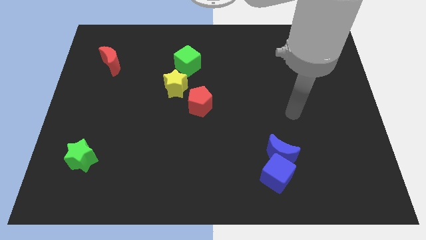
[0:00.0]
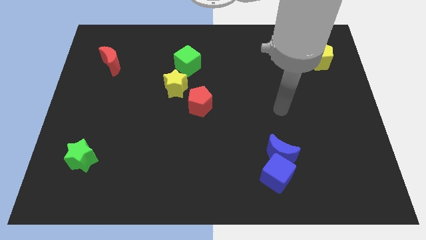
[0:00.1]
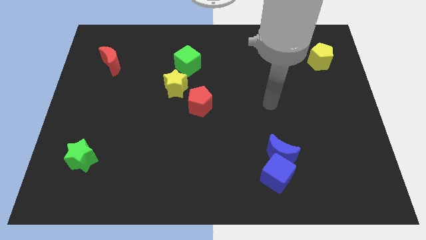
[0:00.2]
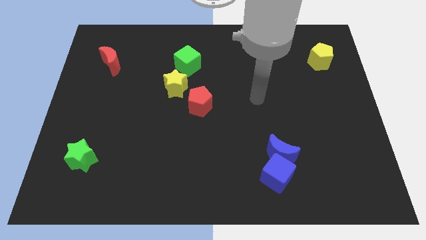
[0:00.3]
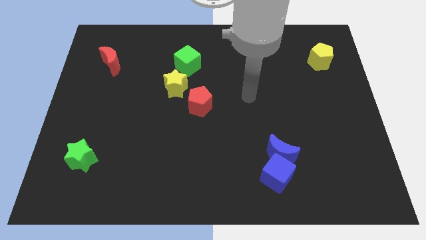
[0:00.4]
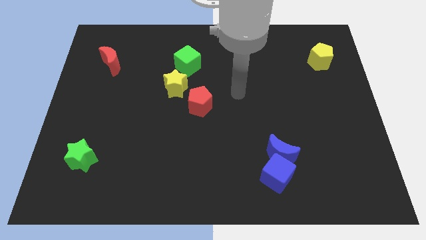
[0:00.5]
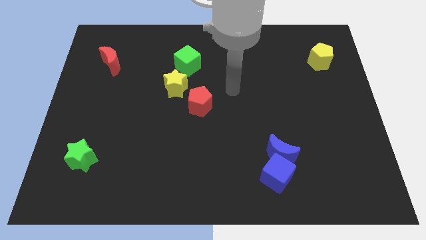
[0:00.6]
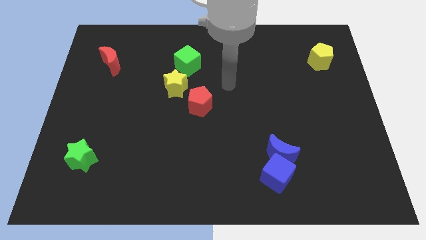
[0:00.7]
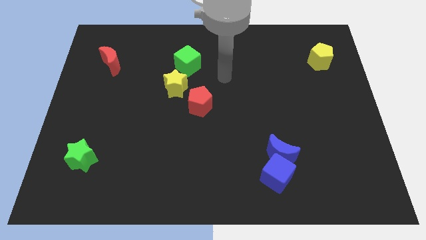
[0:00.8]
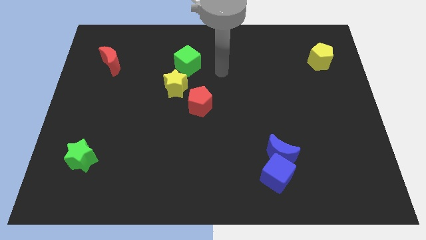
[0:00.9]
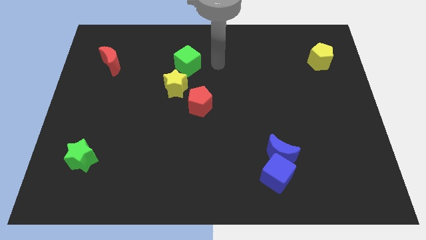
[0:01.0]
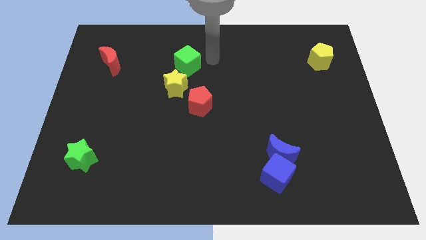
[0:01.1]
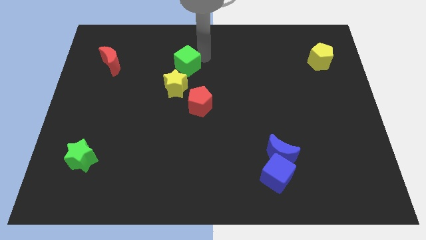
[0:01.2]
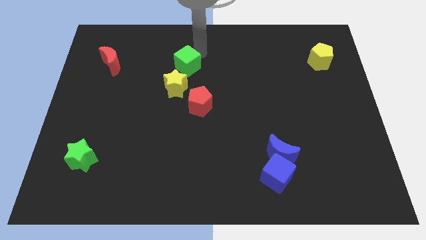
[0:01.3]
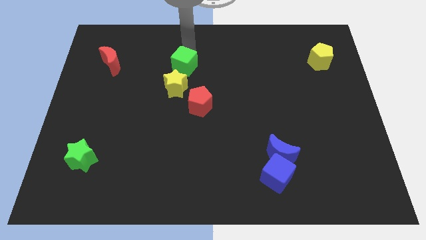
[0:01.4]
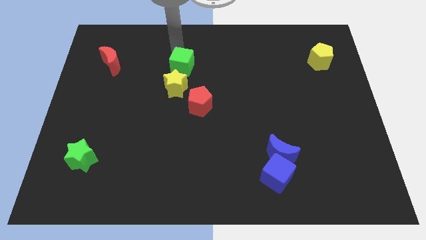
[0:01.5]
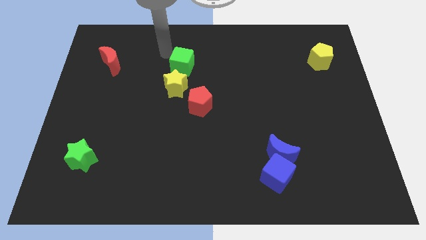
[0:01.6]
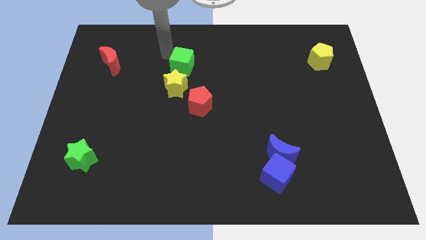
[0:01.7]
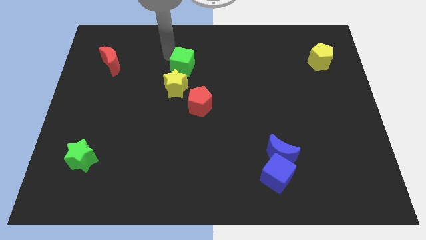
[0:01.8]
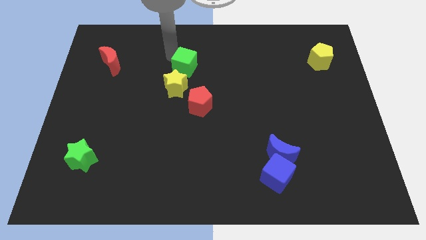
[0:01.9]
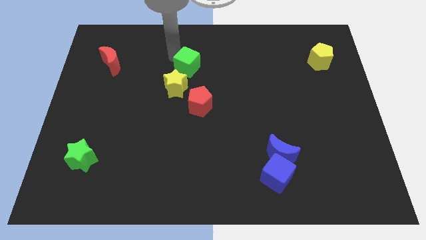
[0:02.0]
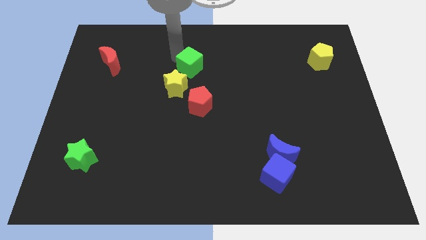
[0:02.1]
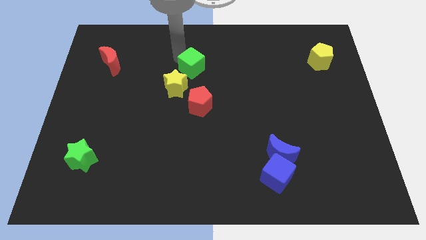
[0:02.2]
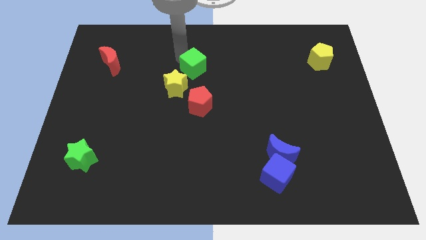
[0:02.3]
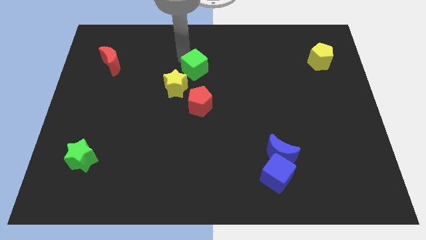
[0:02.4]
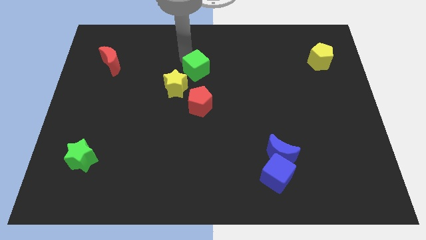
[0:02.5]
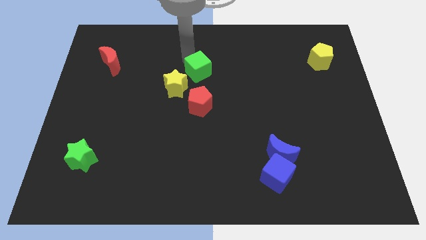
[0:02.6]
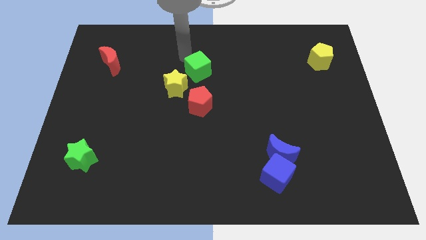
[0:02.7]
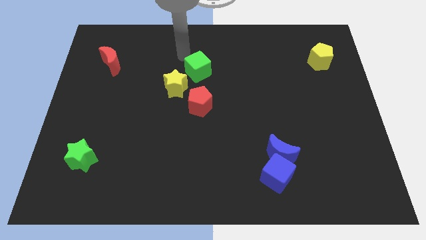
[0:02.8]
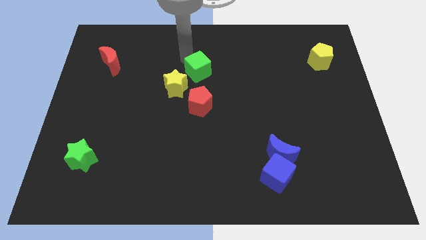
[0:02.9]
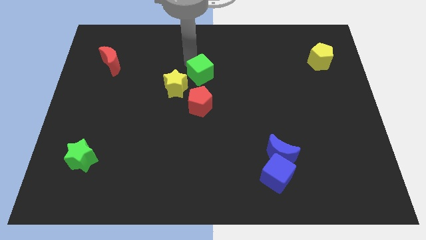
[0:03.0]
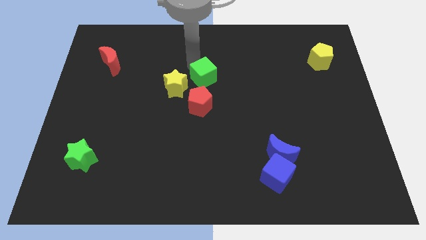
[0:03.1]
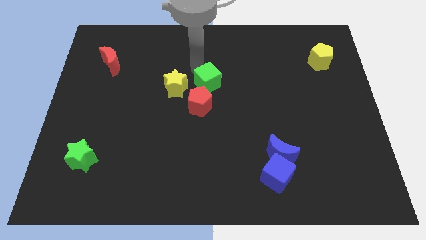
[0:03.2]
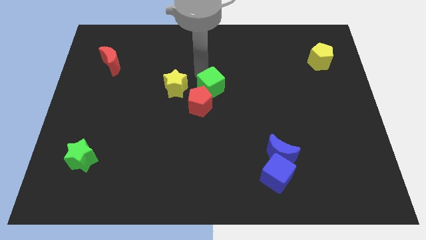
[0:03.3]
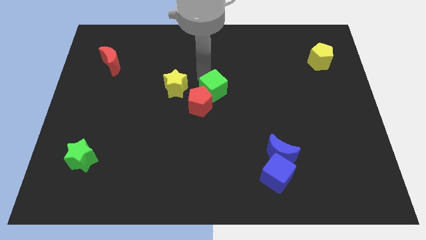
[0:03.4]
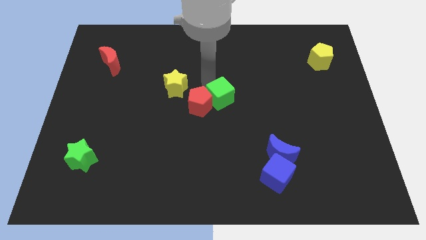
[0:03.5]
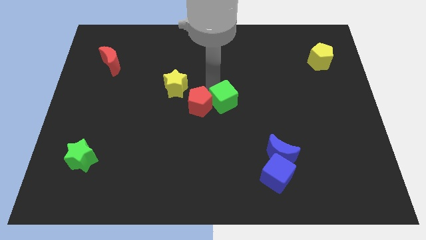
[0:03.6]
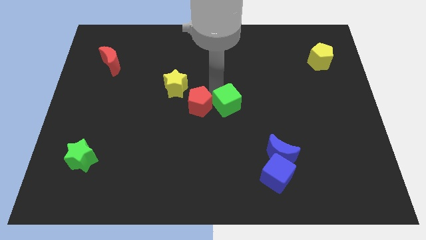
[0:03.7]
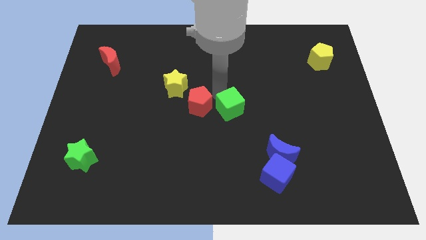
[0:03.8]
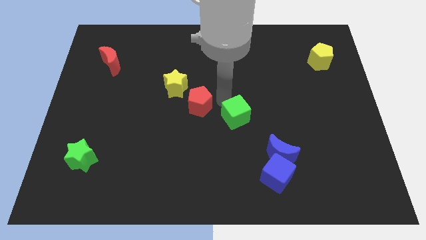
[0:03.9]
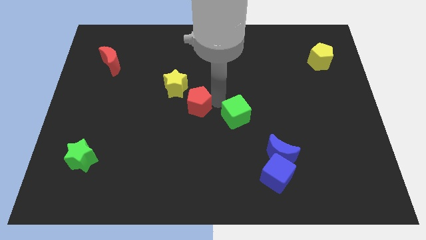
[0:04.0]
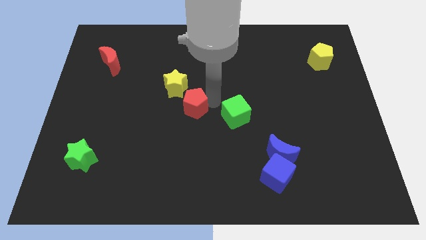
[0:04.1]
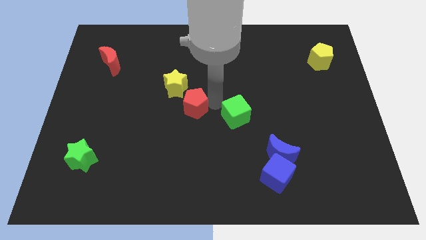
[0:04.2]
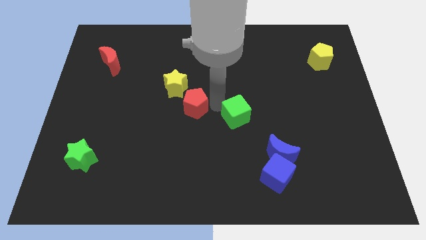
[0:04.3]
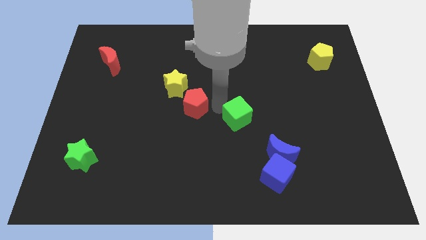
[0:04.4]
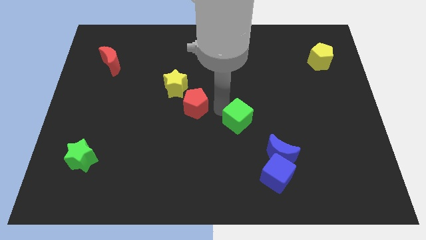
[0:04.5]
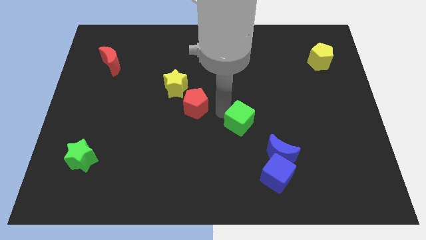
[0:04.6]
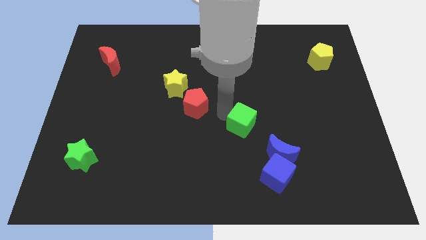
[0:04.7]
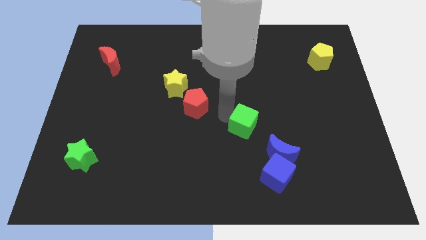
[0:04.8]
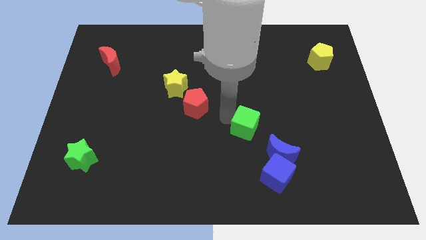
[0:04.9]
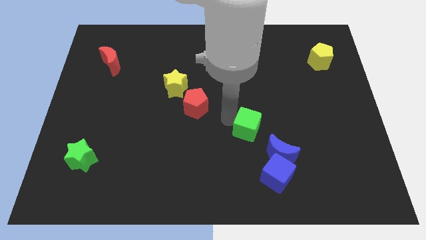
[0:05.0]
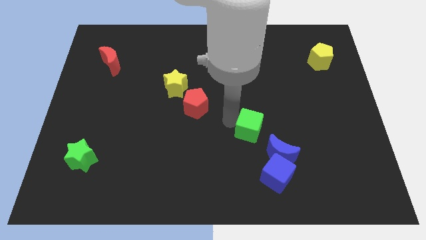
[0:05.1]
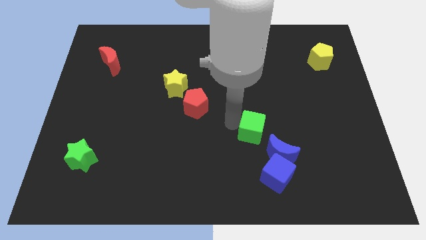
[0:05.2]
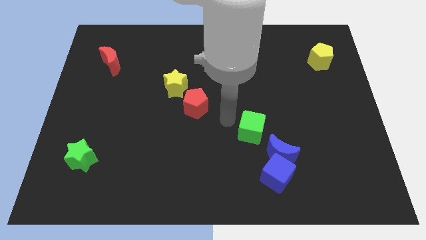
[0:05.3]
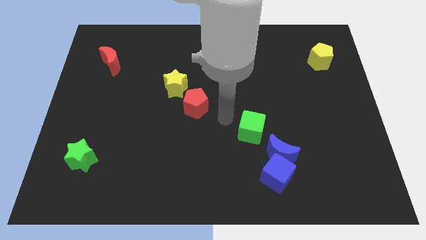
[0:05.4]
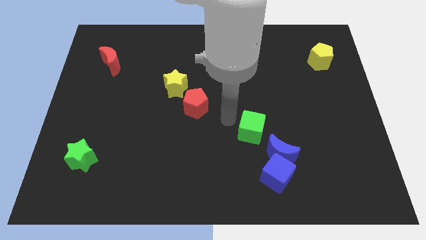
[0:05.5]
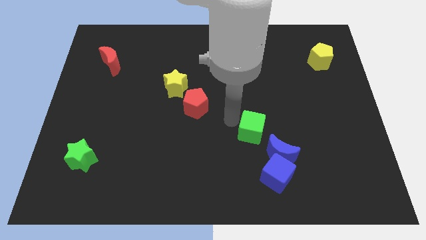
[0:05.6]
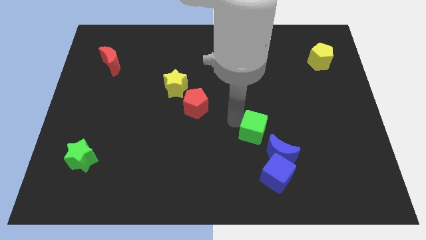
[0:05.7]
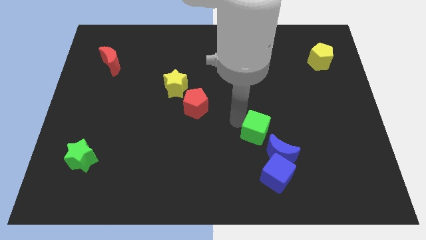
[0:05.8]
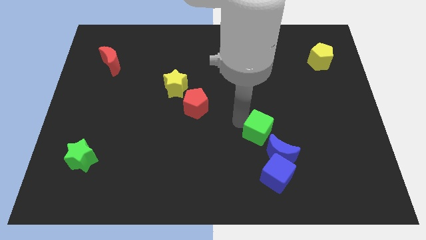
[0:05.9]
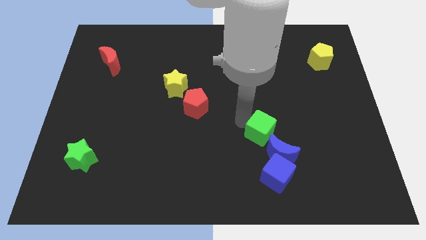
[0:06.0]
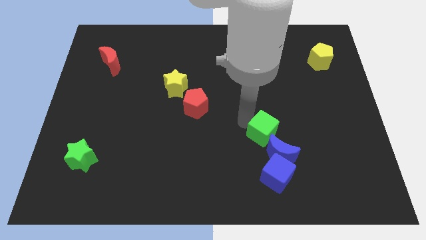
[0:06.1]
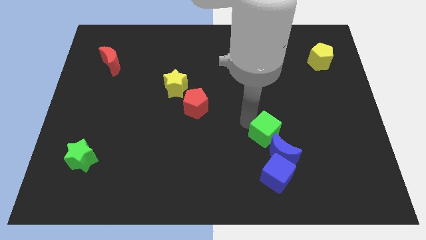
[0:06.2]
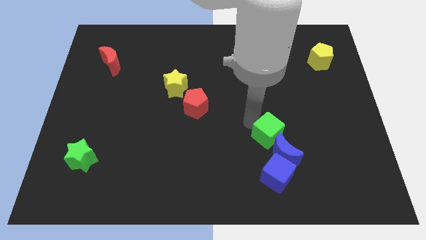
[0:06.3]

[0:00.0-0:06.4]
push the green cube towards the blue moon

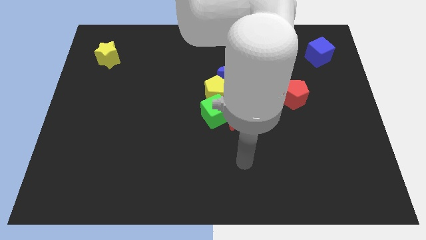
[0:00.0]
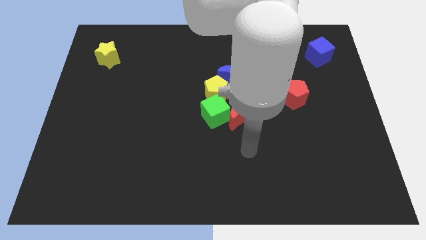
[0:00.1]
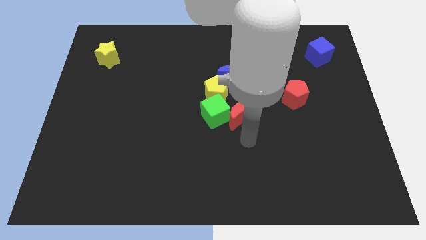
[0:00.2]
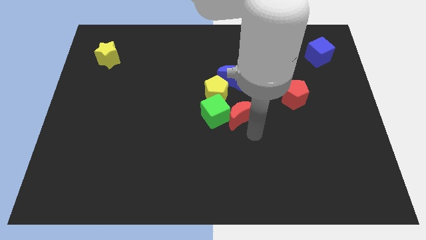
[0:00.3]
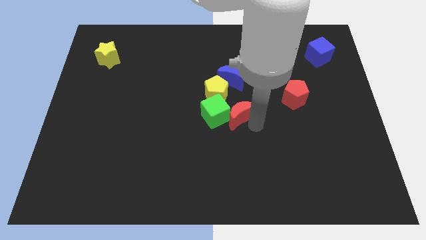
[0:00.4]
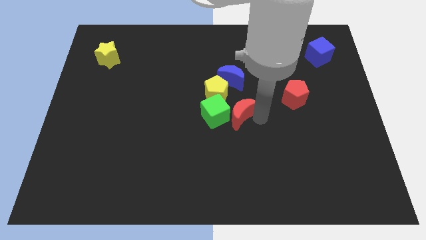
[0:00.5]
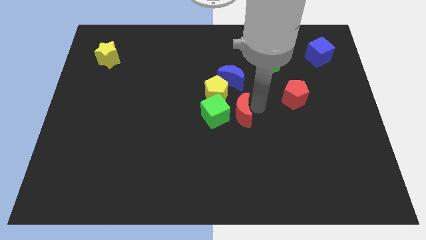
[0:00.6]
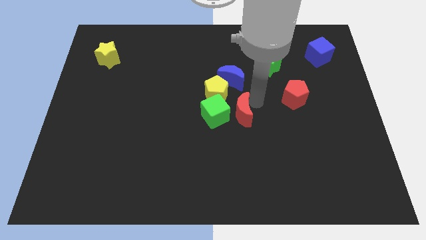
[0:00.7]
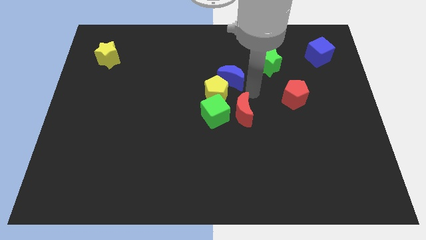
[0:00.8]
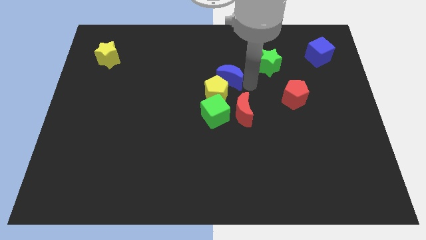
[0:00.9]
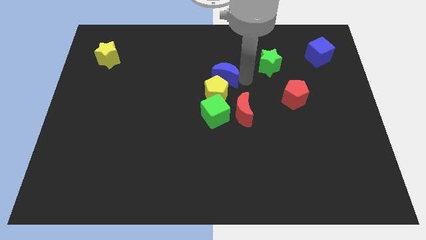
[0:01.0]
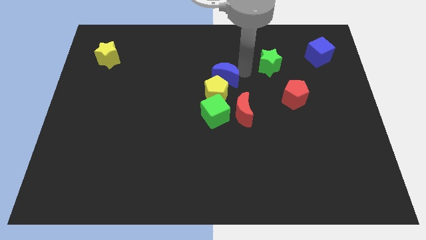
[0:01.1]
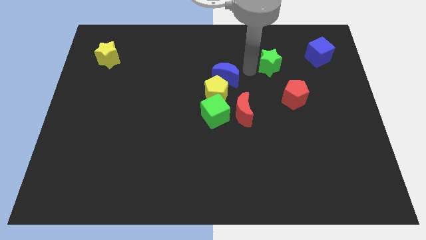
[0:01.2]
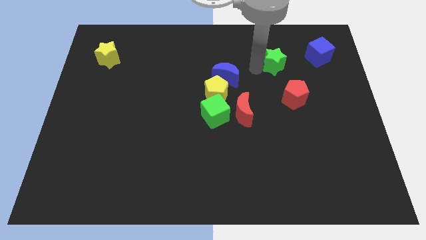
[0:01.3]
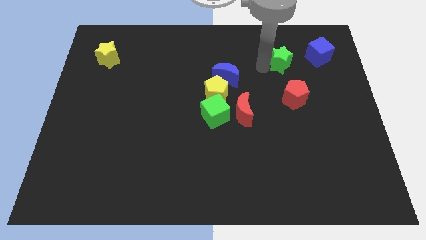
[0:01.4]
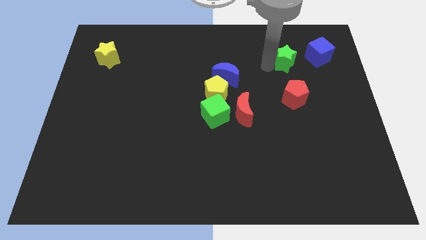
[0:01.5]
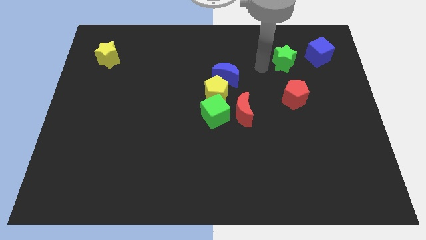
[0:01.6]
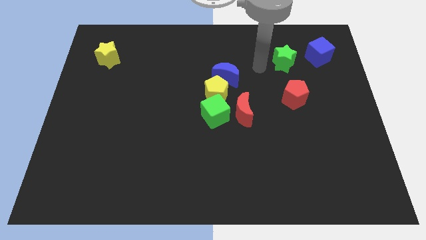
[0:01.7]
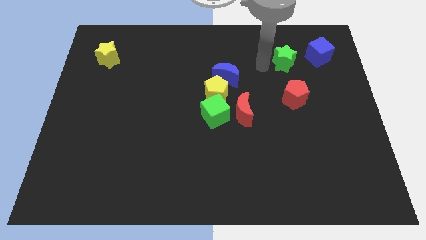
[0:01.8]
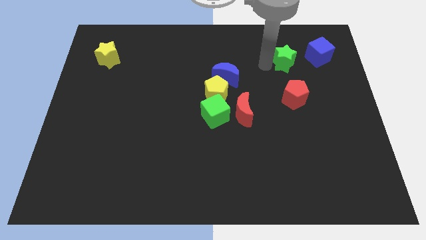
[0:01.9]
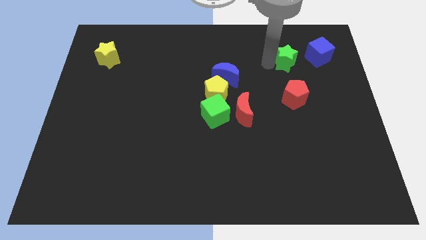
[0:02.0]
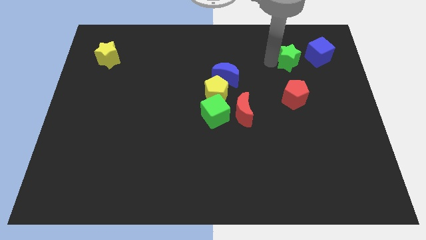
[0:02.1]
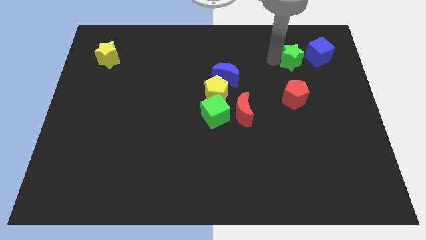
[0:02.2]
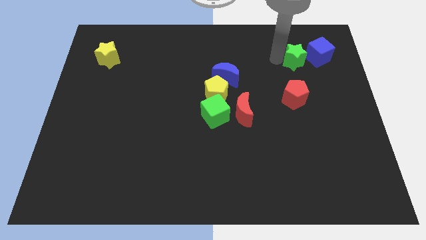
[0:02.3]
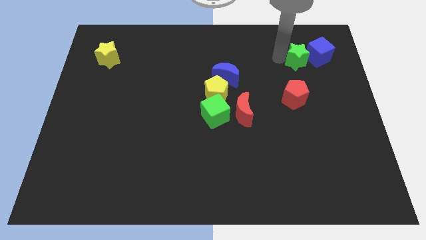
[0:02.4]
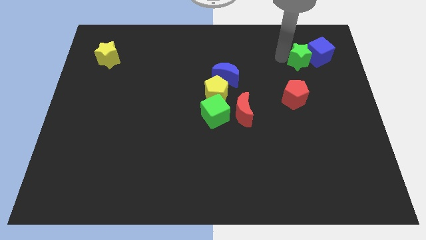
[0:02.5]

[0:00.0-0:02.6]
put the green star towards the blue cube
